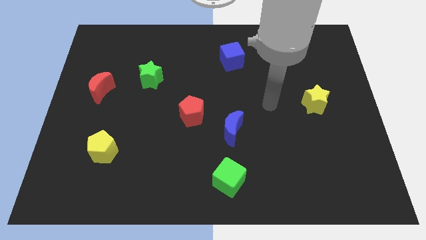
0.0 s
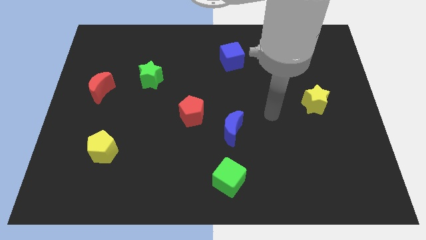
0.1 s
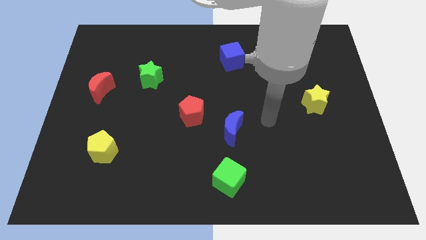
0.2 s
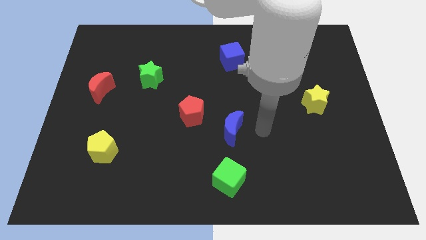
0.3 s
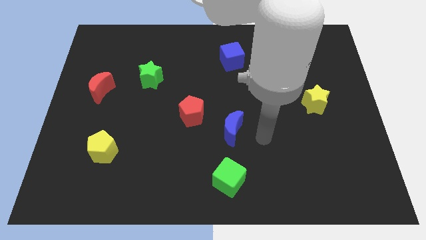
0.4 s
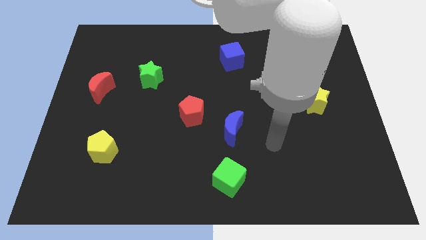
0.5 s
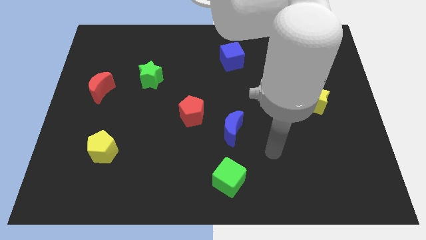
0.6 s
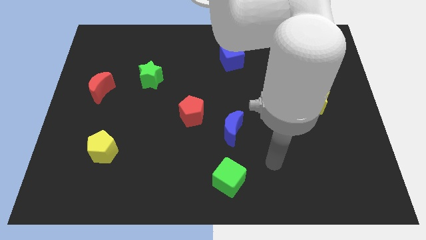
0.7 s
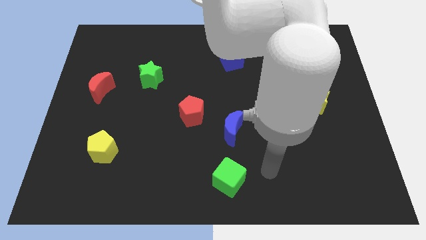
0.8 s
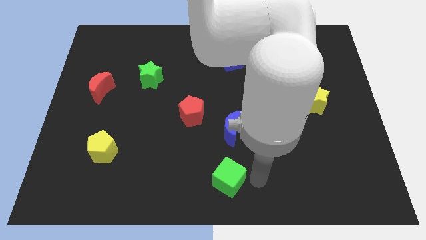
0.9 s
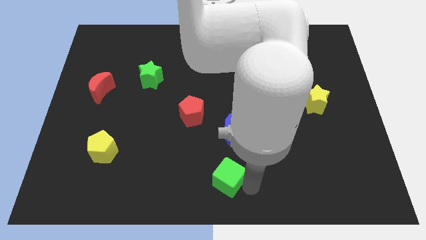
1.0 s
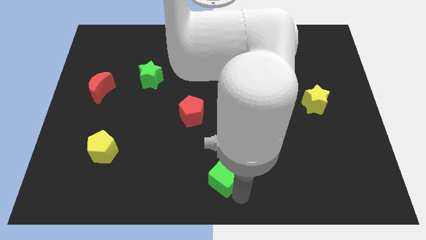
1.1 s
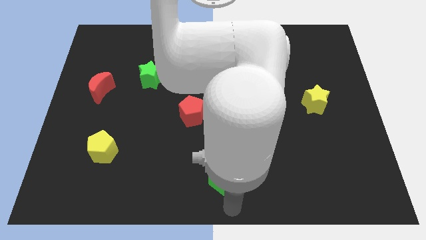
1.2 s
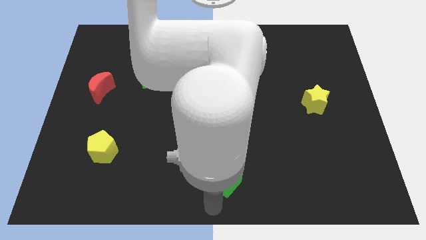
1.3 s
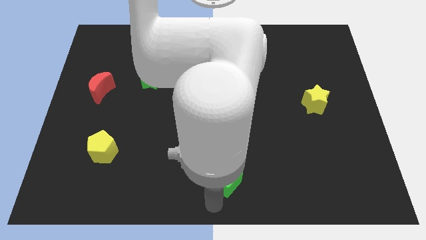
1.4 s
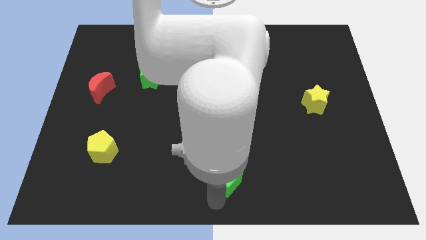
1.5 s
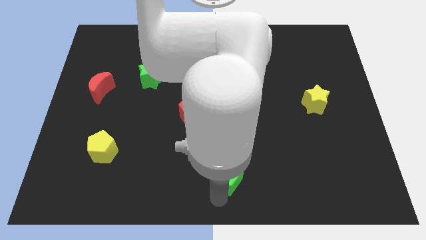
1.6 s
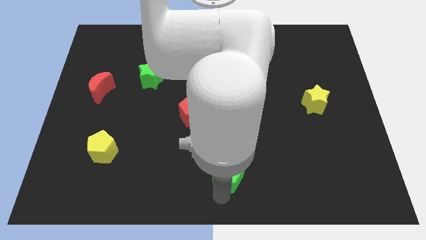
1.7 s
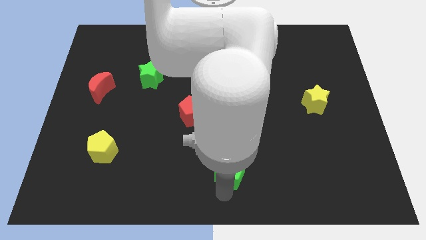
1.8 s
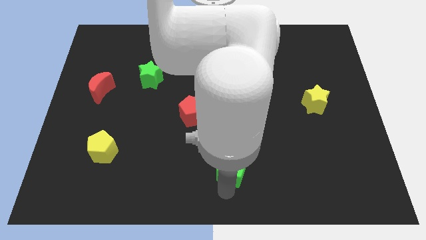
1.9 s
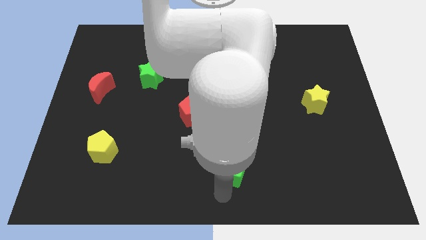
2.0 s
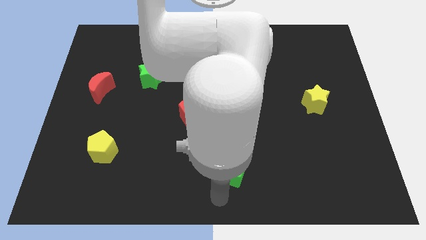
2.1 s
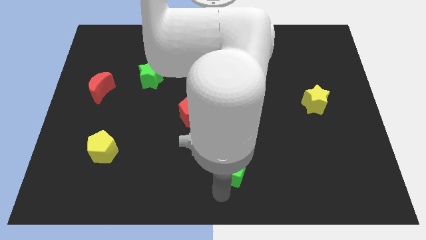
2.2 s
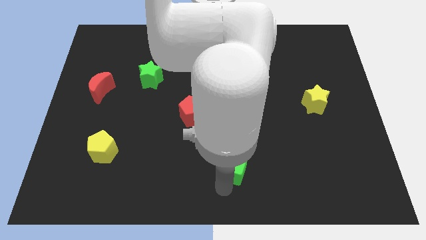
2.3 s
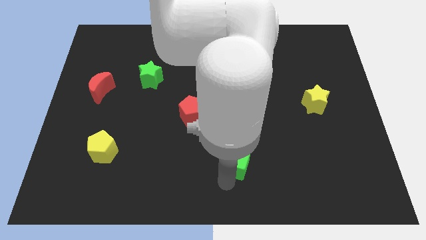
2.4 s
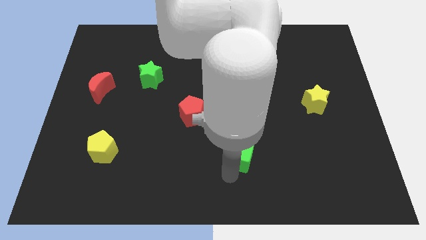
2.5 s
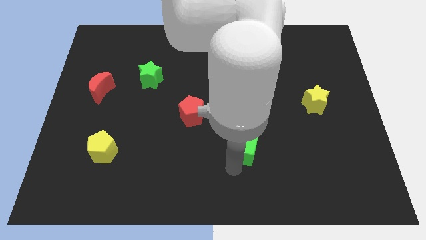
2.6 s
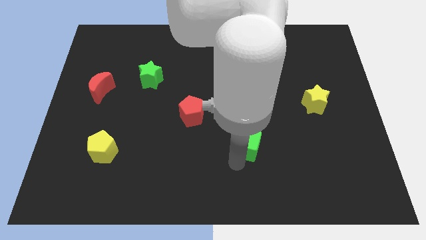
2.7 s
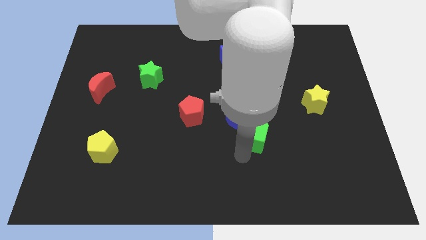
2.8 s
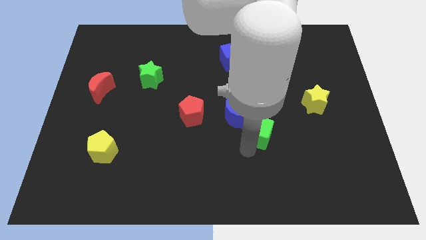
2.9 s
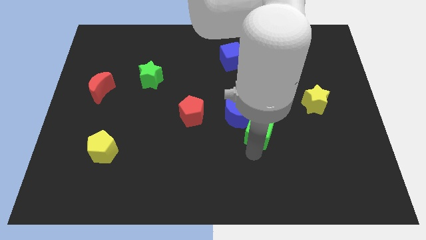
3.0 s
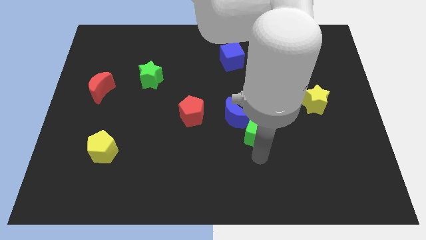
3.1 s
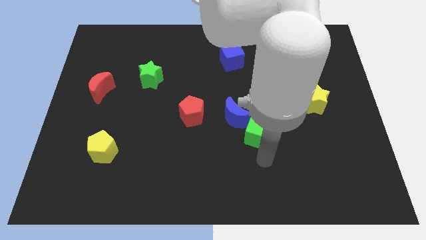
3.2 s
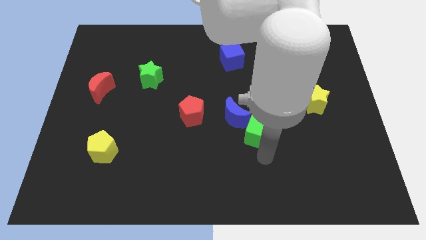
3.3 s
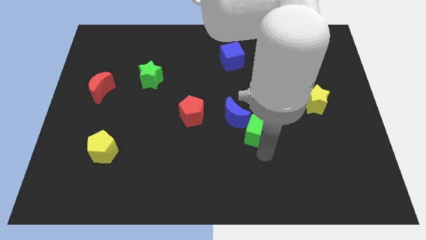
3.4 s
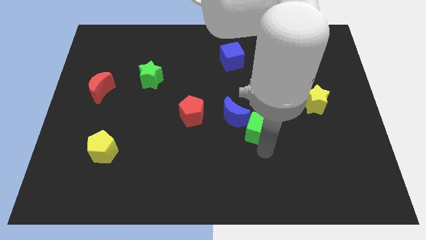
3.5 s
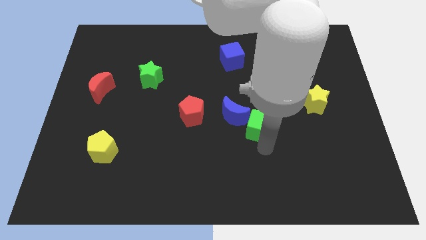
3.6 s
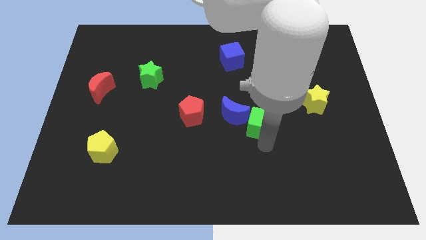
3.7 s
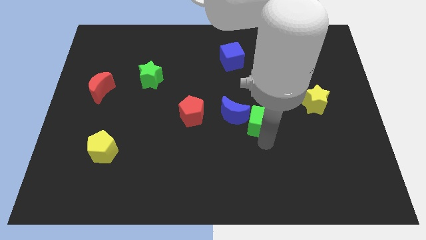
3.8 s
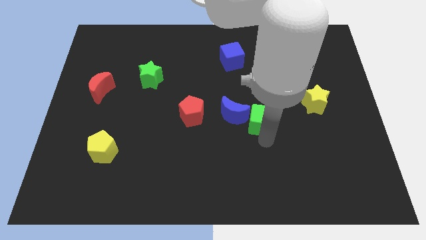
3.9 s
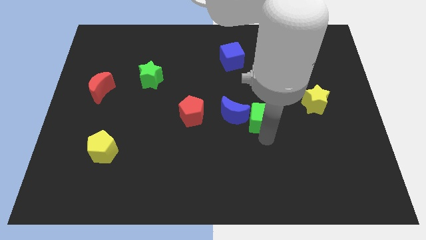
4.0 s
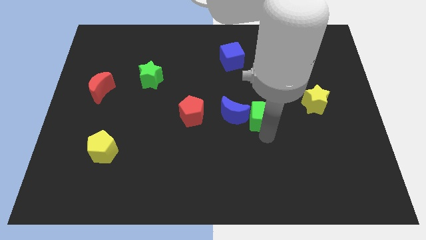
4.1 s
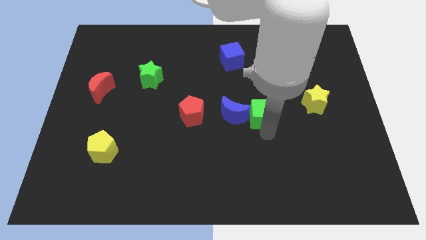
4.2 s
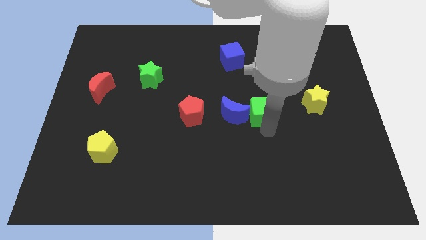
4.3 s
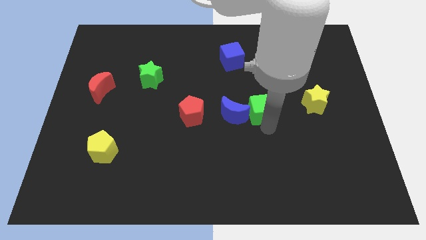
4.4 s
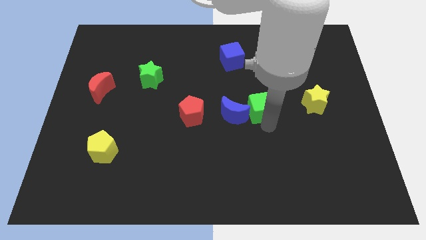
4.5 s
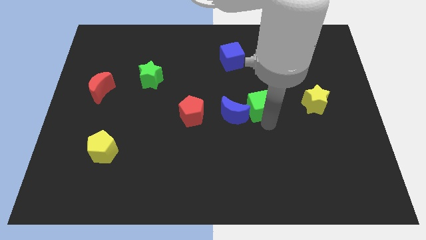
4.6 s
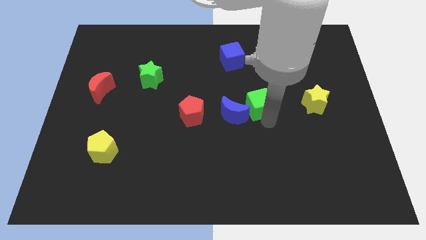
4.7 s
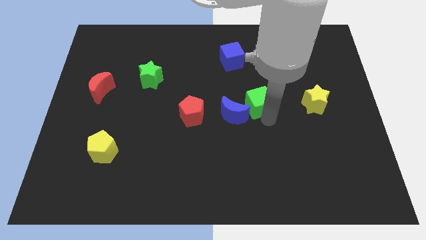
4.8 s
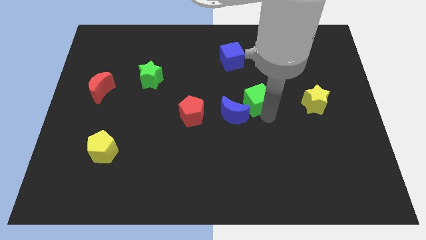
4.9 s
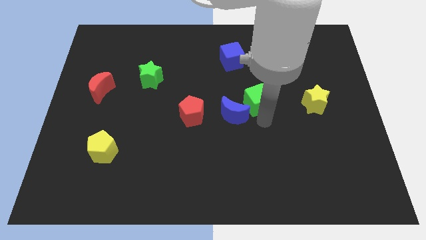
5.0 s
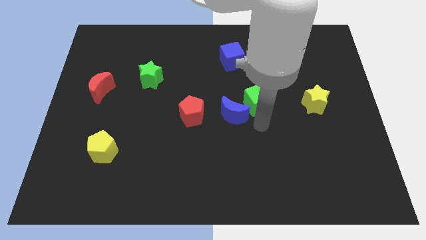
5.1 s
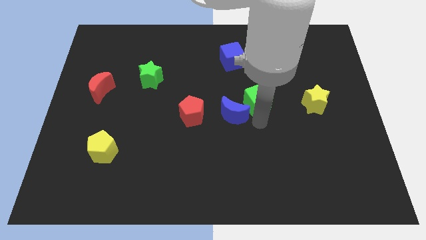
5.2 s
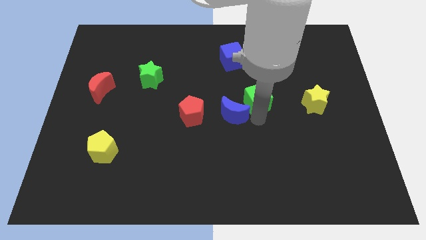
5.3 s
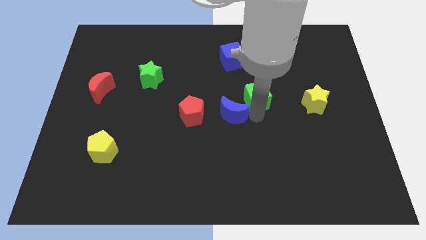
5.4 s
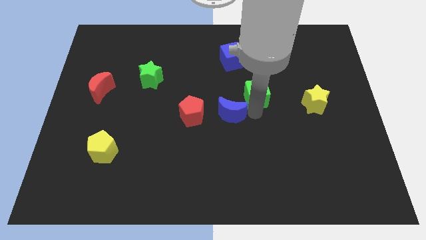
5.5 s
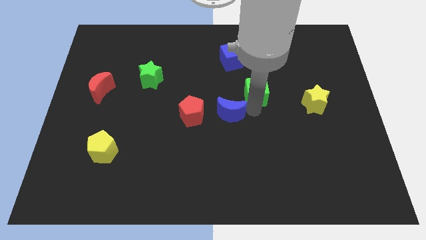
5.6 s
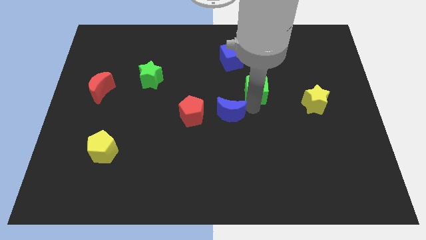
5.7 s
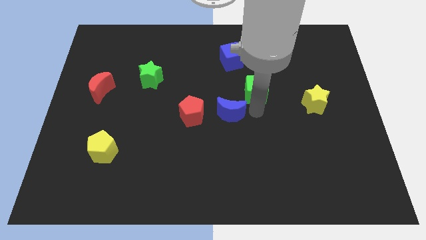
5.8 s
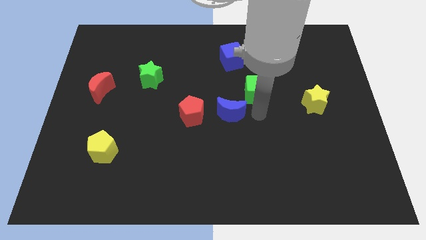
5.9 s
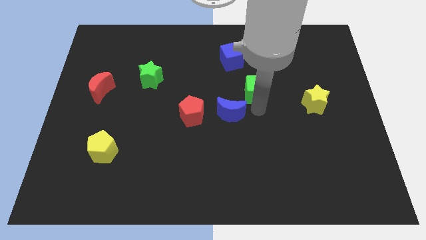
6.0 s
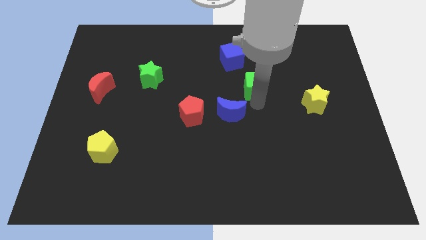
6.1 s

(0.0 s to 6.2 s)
slide the green cube to the bottom right of the blue cube

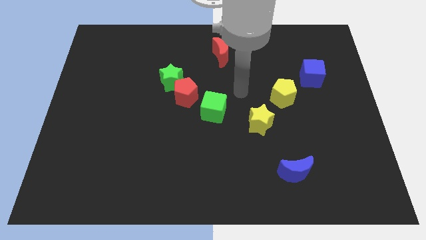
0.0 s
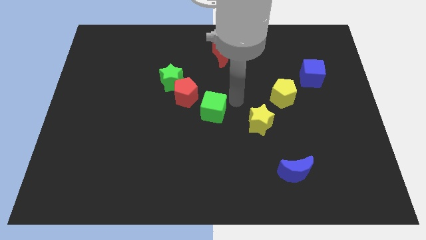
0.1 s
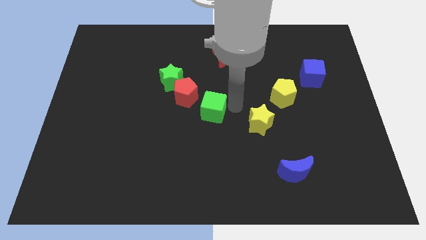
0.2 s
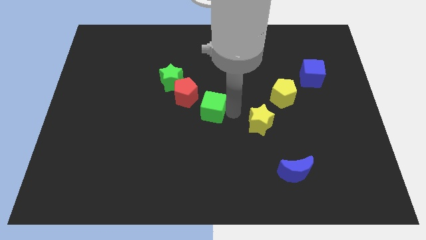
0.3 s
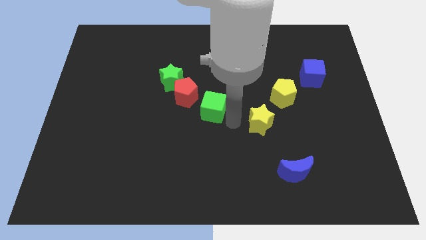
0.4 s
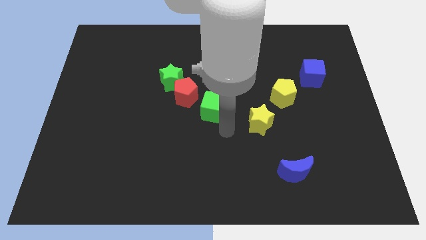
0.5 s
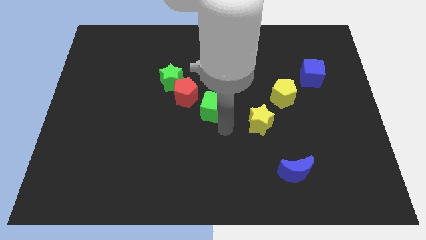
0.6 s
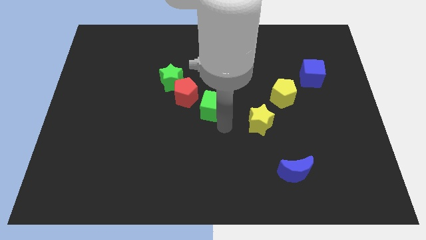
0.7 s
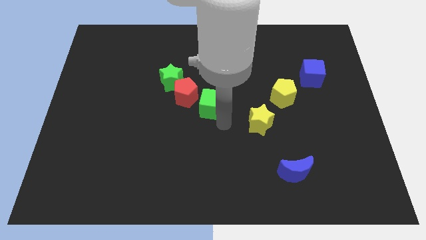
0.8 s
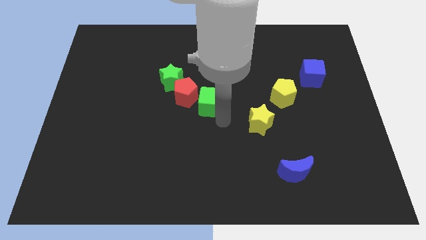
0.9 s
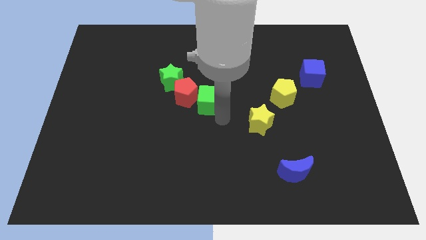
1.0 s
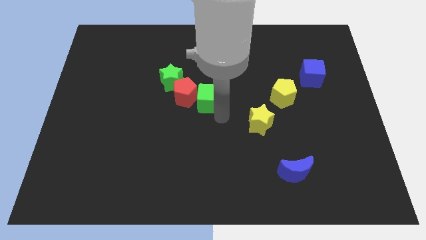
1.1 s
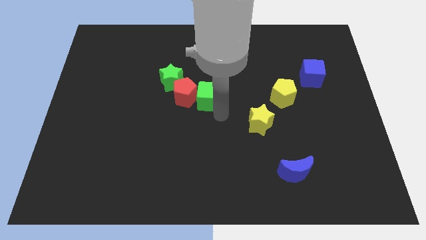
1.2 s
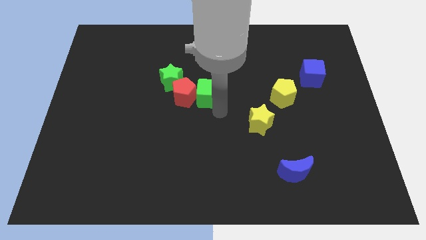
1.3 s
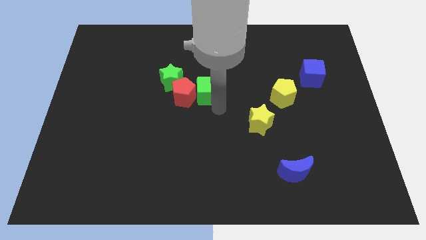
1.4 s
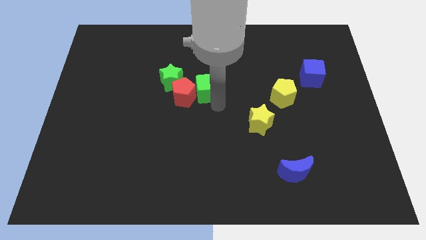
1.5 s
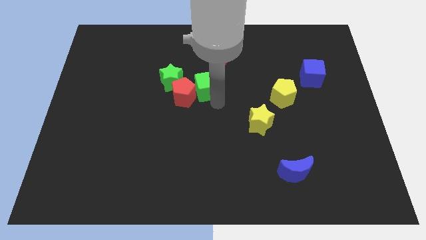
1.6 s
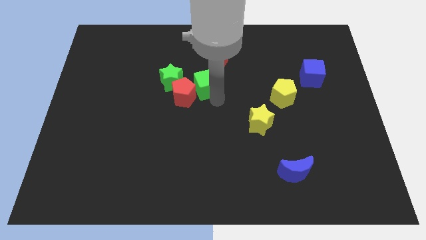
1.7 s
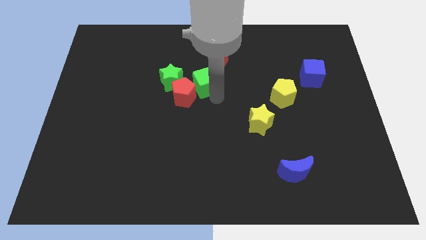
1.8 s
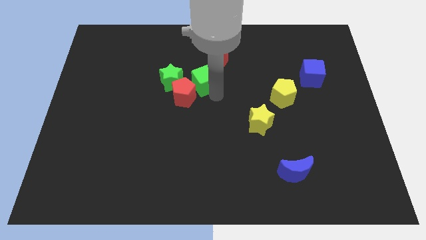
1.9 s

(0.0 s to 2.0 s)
push the green cube to the top side of the red pentagon
